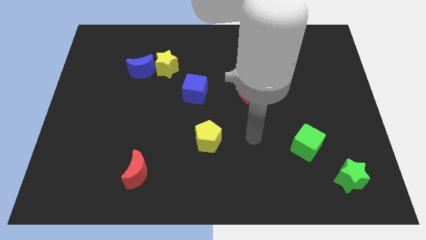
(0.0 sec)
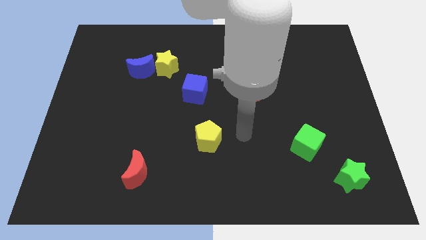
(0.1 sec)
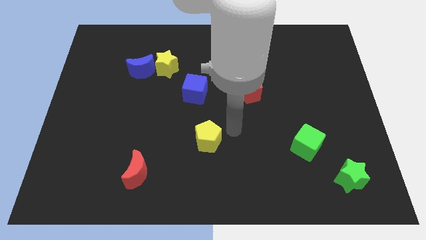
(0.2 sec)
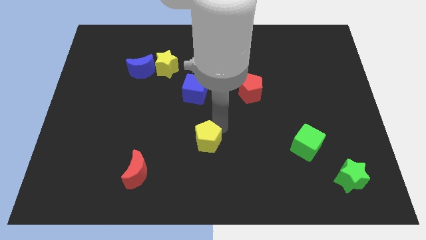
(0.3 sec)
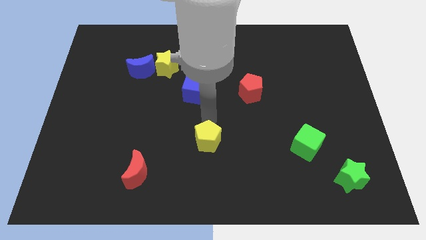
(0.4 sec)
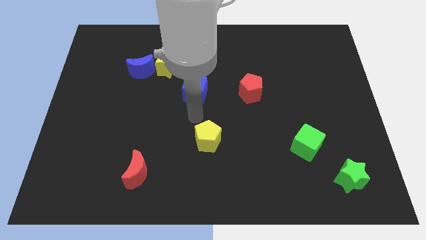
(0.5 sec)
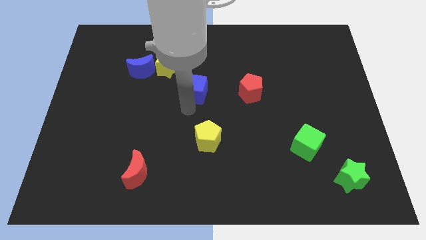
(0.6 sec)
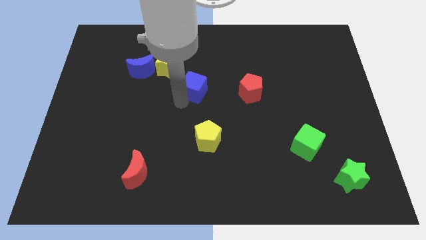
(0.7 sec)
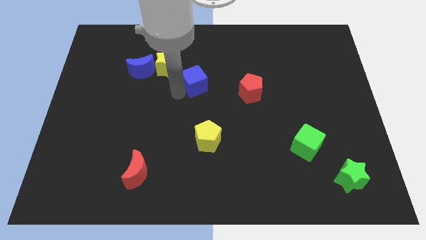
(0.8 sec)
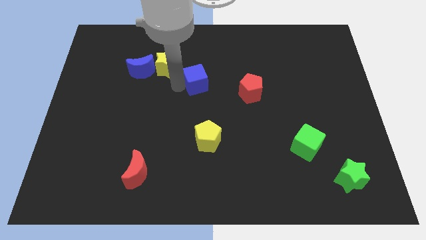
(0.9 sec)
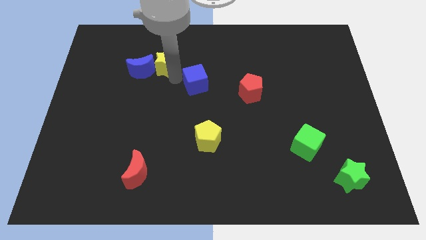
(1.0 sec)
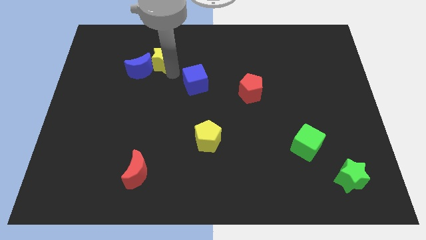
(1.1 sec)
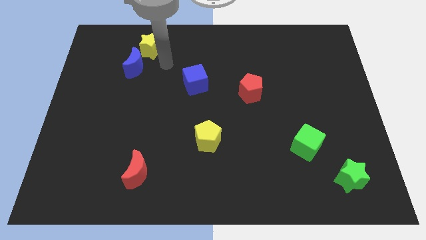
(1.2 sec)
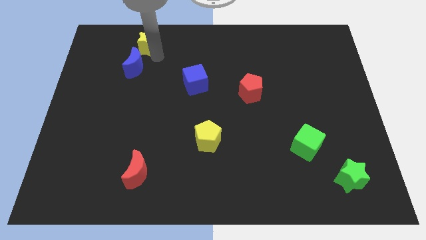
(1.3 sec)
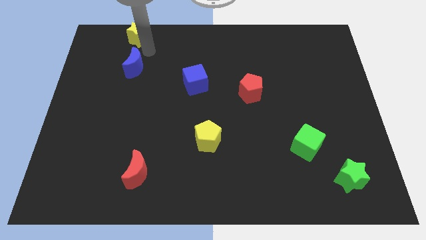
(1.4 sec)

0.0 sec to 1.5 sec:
separate the blue moon from the yellow star

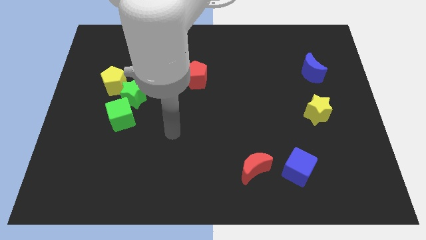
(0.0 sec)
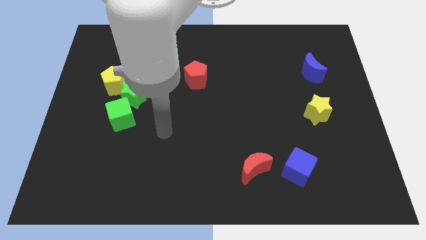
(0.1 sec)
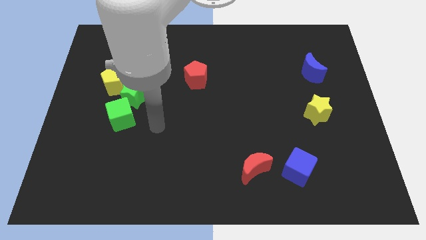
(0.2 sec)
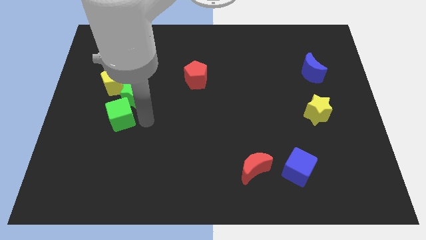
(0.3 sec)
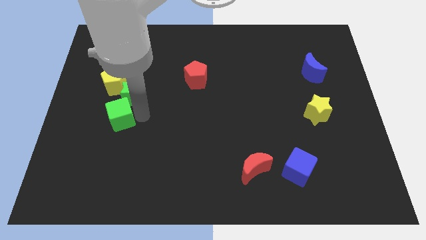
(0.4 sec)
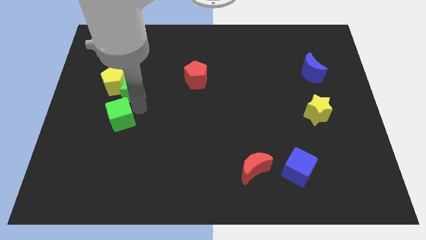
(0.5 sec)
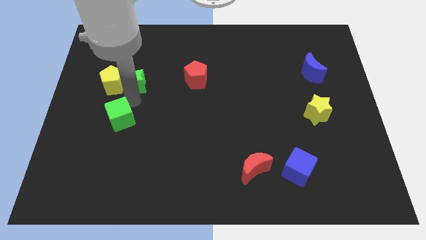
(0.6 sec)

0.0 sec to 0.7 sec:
move the green cube away from the green star

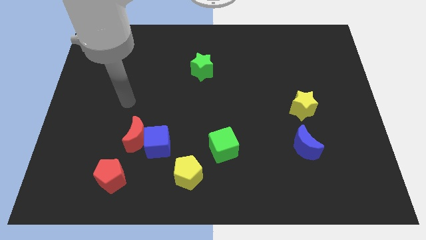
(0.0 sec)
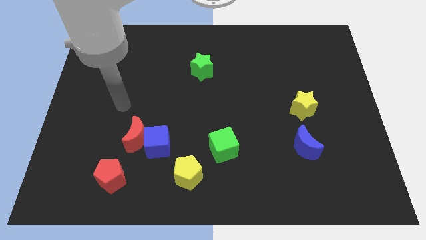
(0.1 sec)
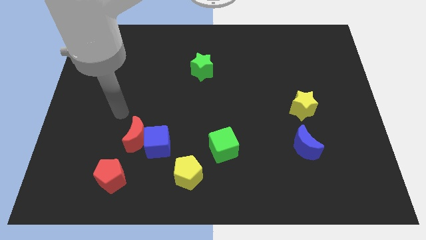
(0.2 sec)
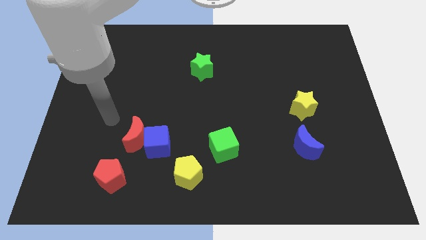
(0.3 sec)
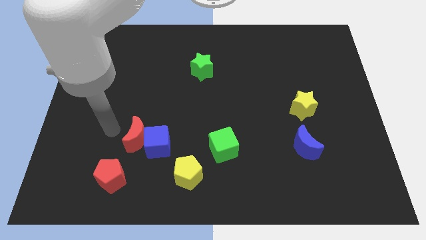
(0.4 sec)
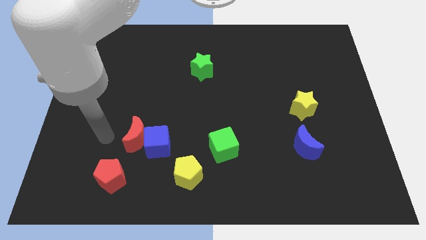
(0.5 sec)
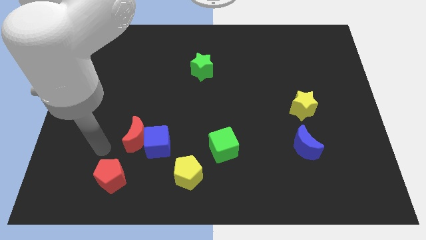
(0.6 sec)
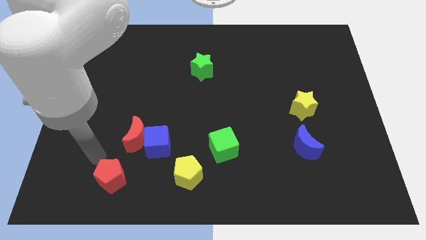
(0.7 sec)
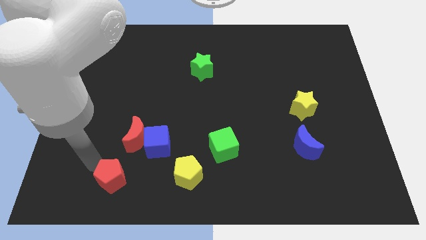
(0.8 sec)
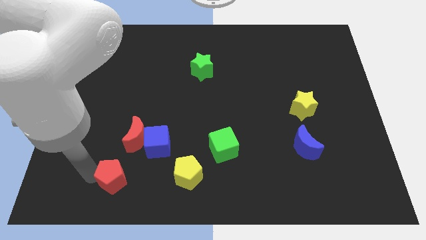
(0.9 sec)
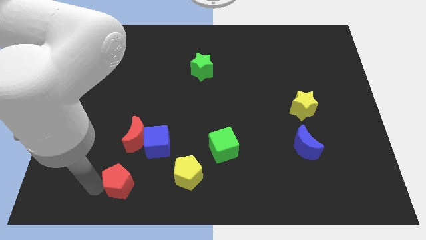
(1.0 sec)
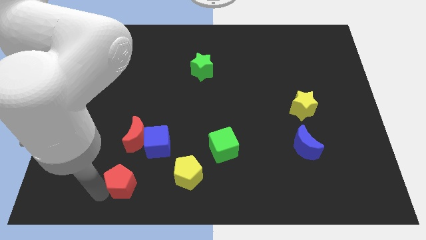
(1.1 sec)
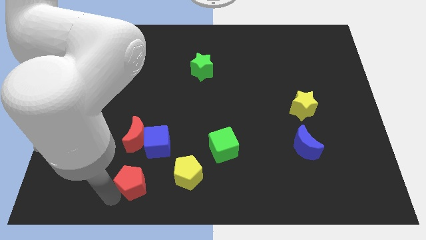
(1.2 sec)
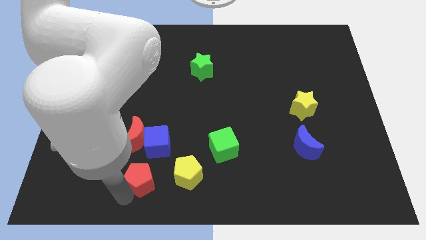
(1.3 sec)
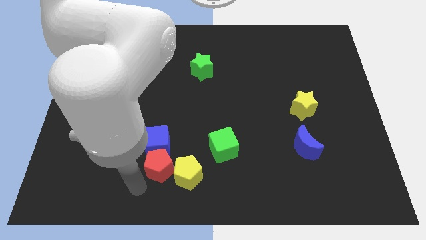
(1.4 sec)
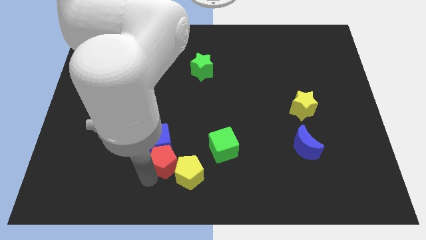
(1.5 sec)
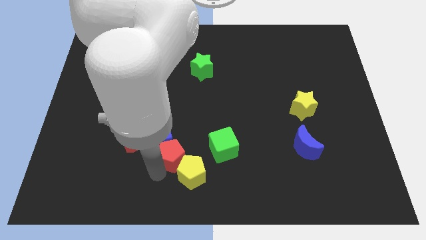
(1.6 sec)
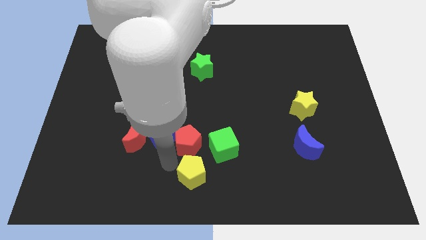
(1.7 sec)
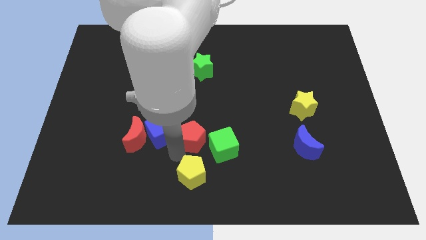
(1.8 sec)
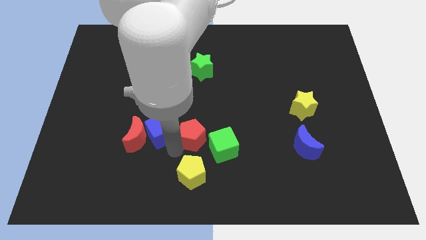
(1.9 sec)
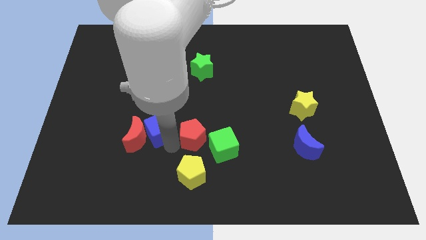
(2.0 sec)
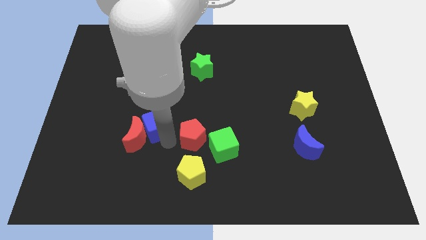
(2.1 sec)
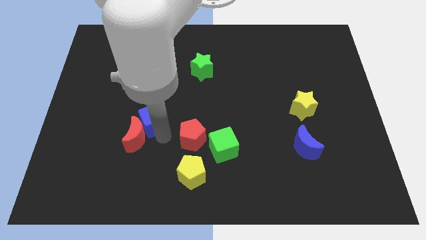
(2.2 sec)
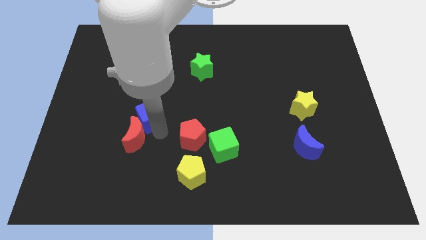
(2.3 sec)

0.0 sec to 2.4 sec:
pull the blue cube apart from the red moon and yellow pentagon

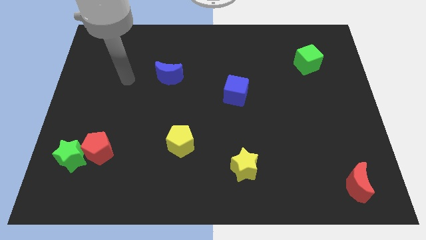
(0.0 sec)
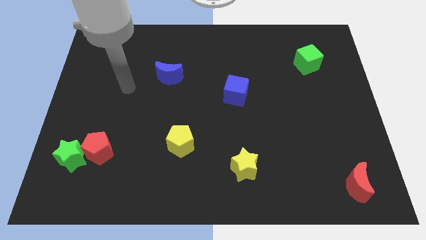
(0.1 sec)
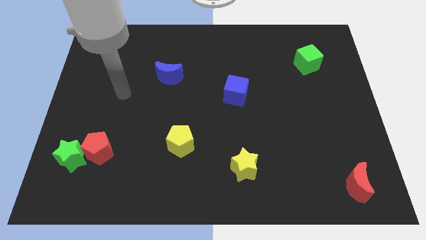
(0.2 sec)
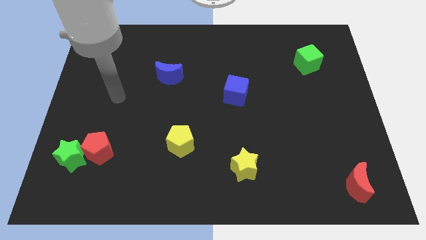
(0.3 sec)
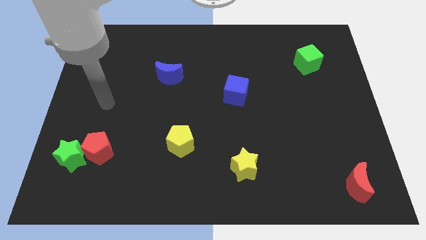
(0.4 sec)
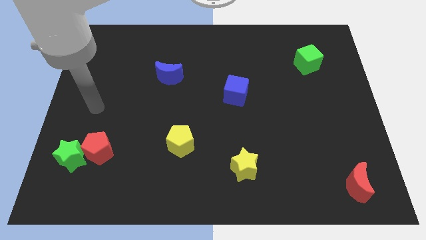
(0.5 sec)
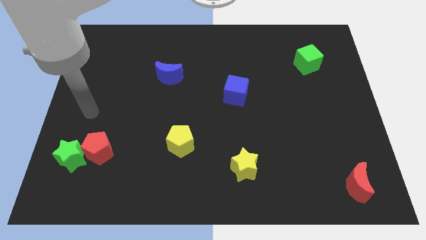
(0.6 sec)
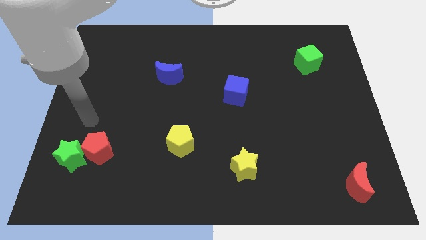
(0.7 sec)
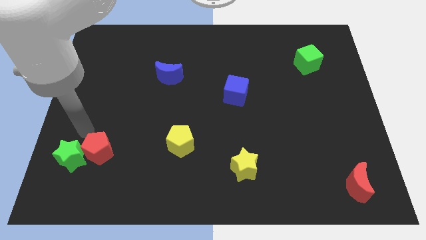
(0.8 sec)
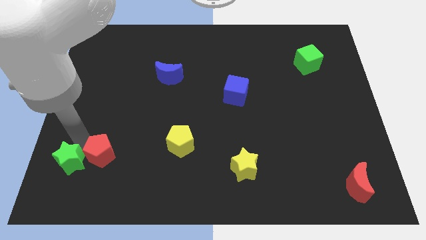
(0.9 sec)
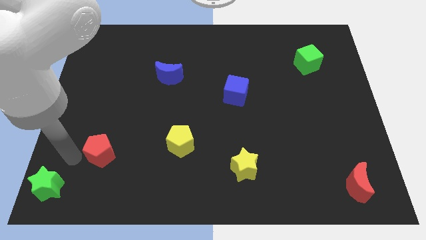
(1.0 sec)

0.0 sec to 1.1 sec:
separate the red pentagon from the green star

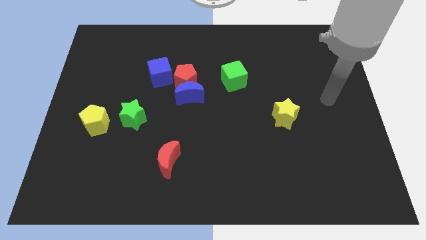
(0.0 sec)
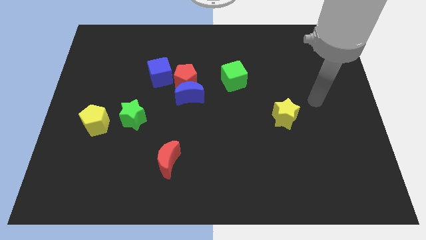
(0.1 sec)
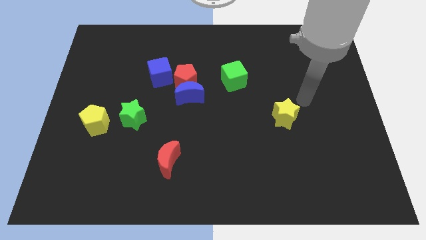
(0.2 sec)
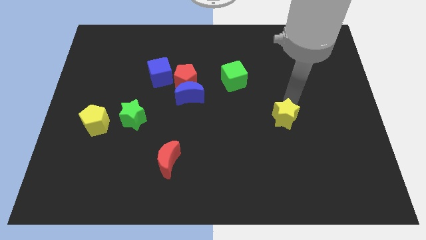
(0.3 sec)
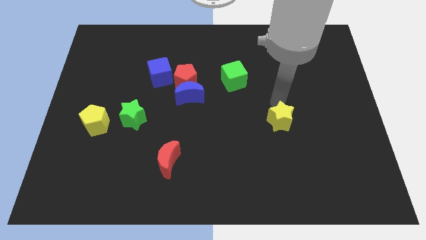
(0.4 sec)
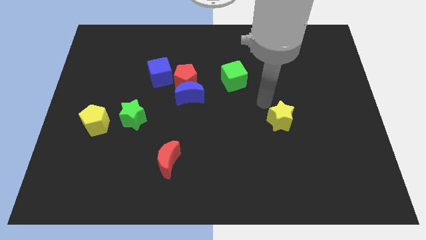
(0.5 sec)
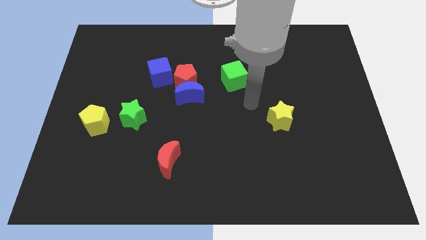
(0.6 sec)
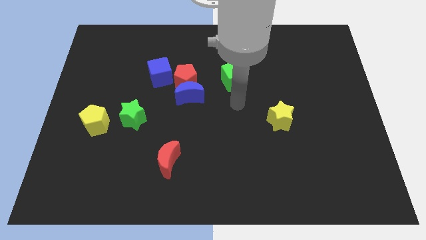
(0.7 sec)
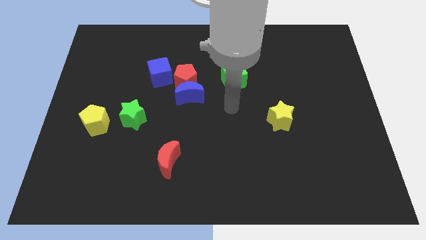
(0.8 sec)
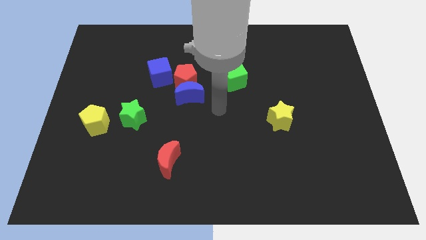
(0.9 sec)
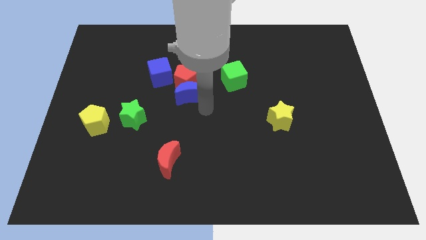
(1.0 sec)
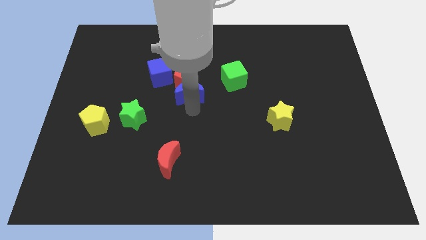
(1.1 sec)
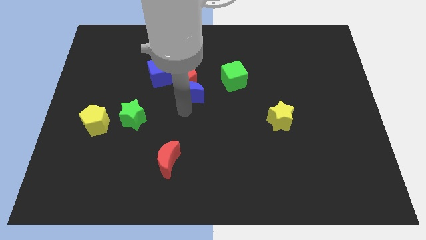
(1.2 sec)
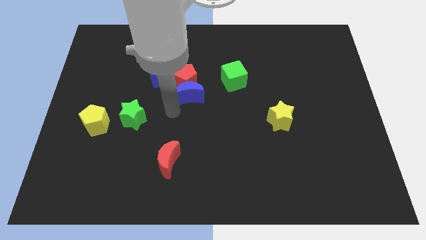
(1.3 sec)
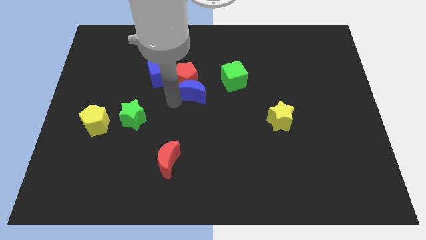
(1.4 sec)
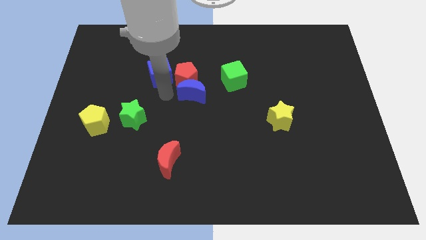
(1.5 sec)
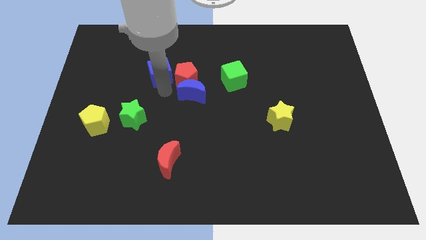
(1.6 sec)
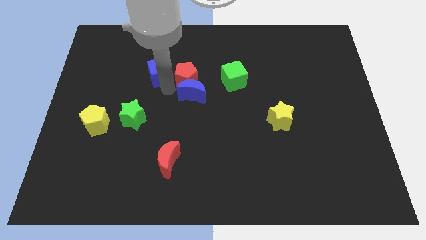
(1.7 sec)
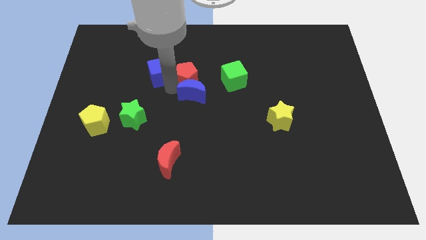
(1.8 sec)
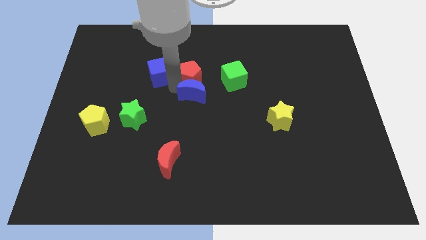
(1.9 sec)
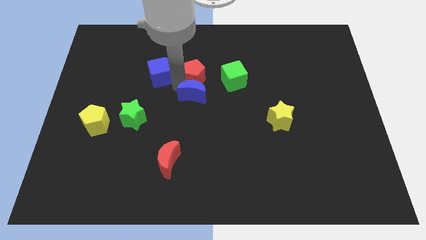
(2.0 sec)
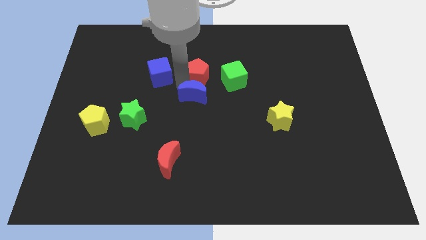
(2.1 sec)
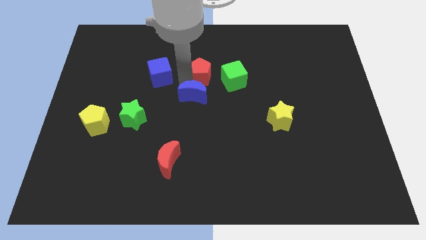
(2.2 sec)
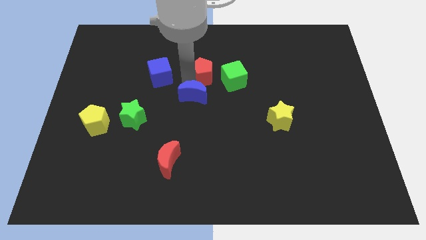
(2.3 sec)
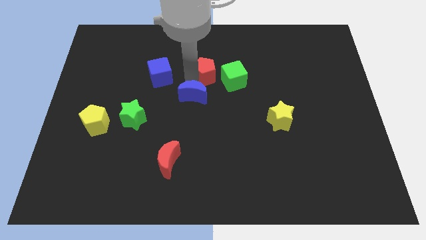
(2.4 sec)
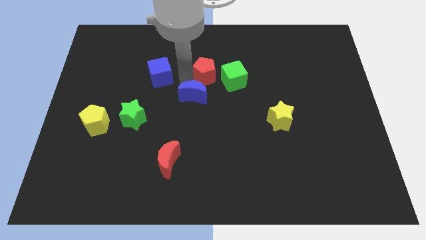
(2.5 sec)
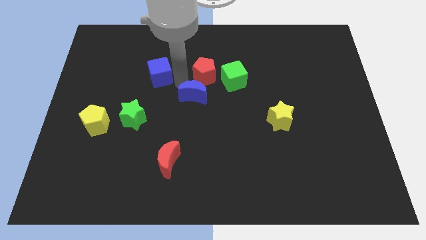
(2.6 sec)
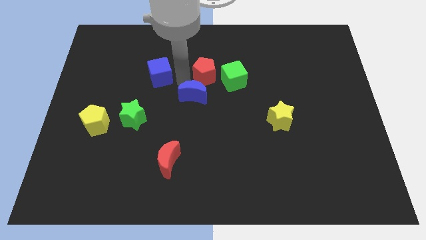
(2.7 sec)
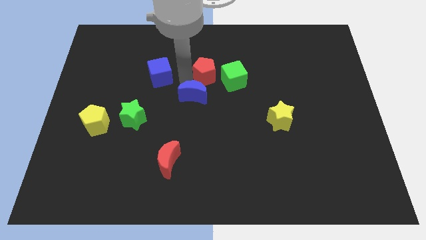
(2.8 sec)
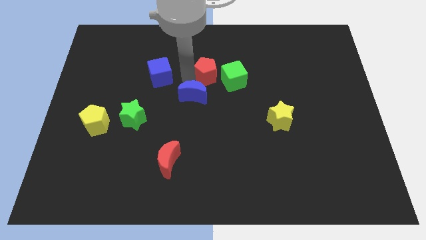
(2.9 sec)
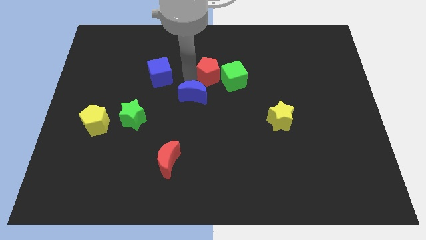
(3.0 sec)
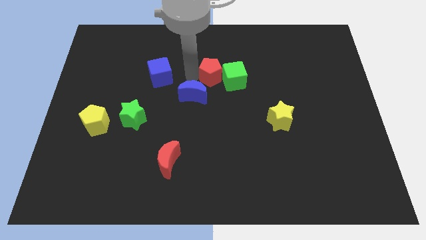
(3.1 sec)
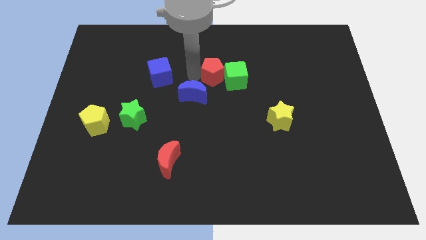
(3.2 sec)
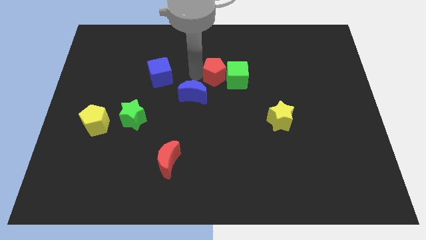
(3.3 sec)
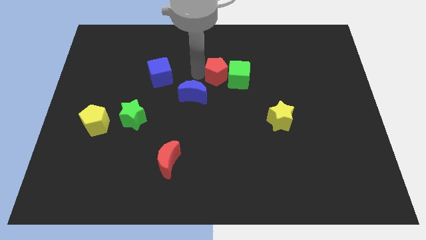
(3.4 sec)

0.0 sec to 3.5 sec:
move the red pentagon away from the blue moon and blue cube

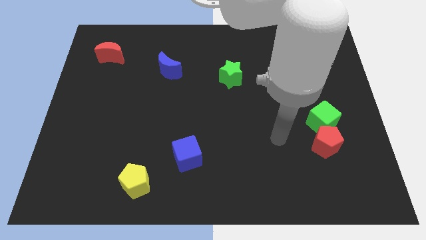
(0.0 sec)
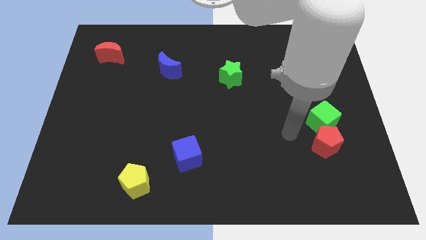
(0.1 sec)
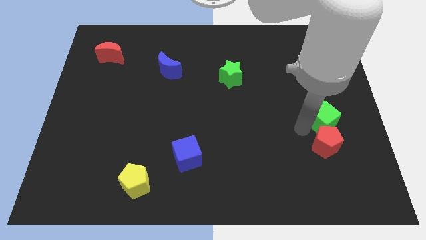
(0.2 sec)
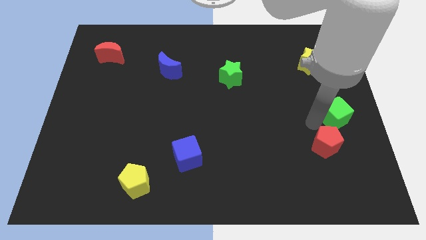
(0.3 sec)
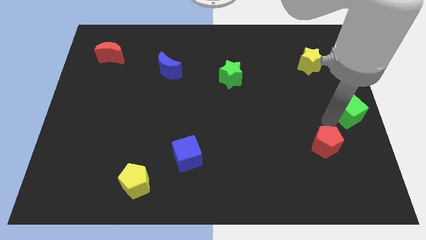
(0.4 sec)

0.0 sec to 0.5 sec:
separate the red pentagon from the green cube
